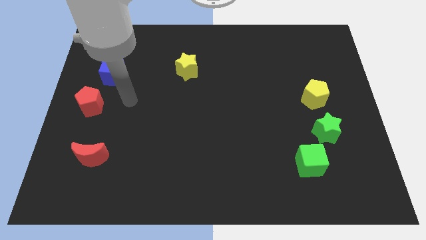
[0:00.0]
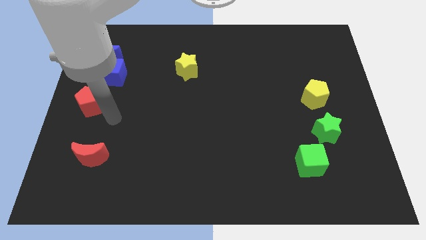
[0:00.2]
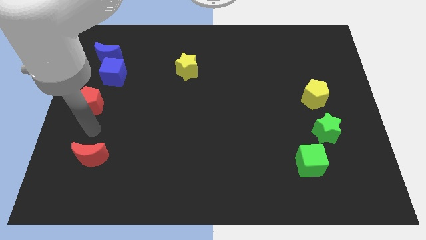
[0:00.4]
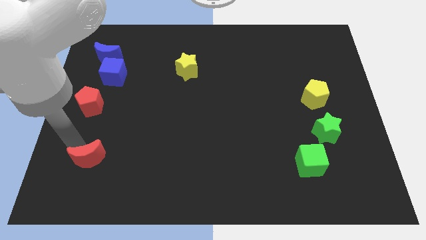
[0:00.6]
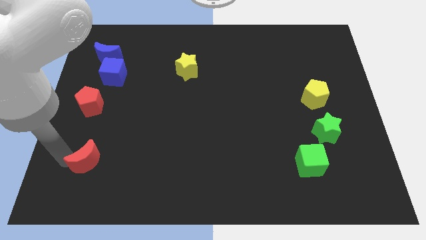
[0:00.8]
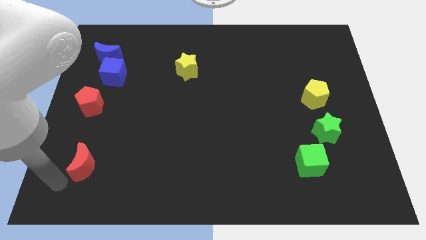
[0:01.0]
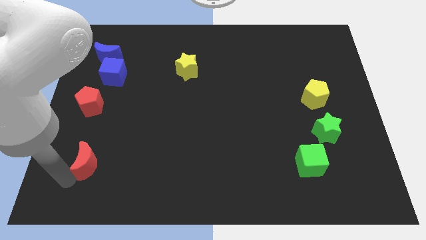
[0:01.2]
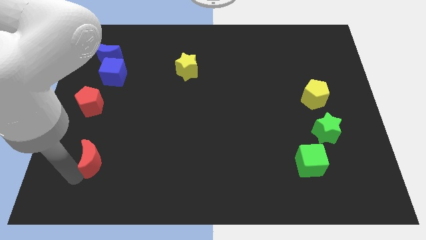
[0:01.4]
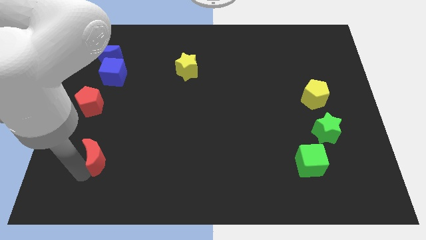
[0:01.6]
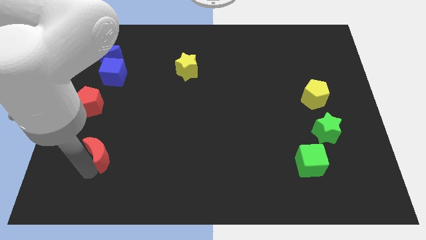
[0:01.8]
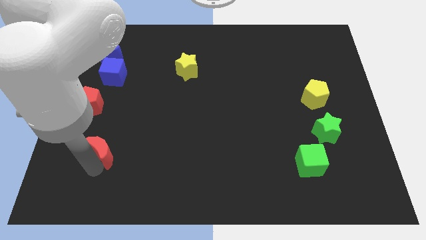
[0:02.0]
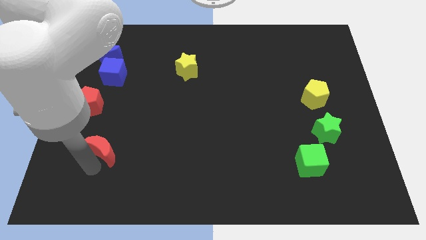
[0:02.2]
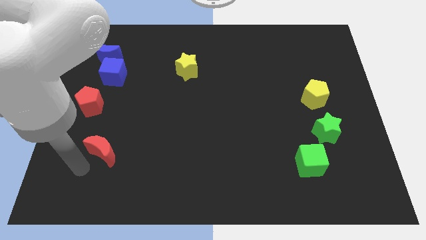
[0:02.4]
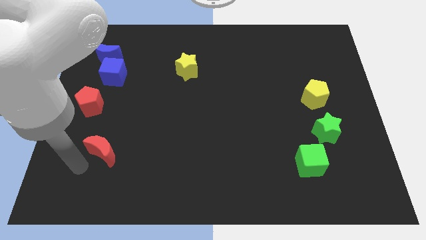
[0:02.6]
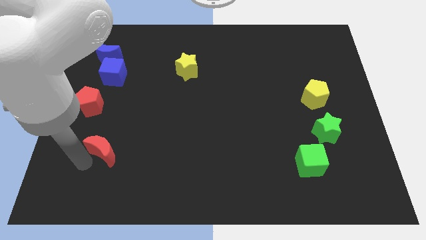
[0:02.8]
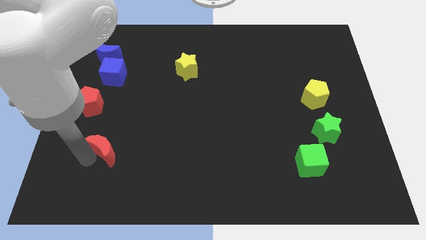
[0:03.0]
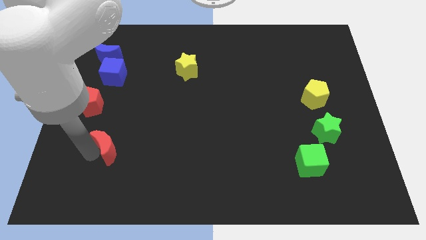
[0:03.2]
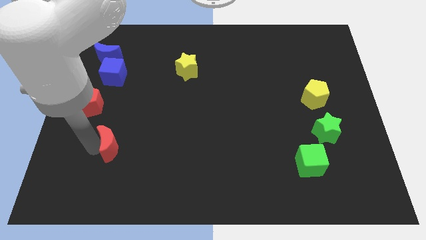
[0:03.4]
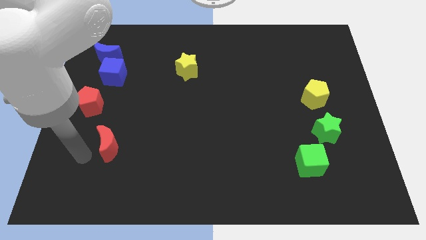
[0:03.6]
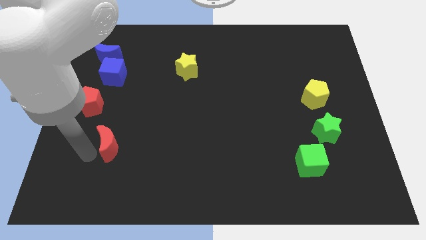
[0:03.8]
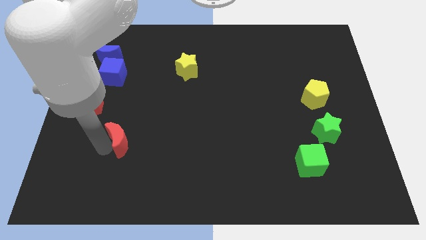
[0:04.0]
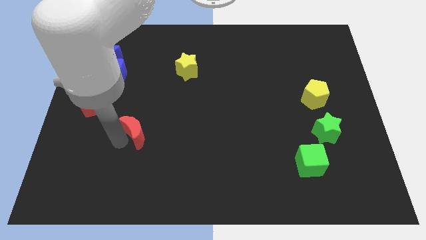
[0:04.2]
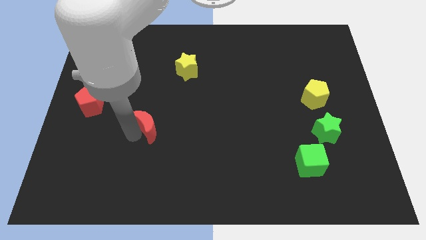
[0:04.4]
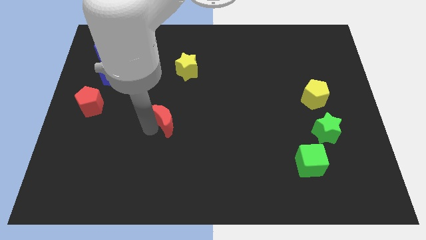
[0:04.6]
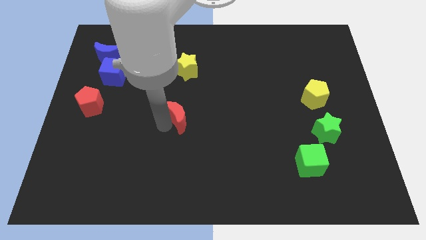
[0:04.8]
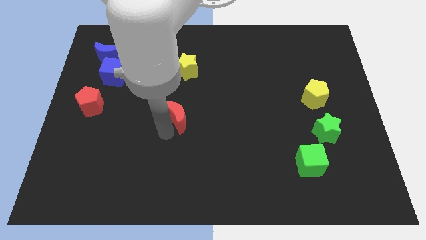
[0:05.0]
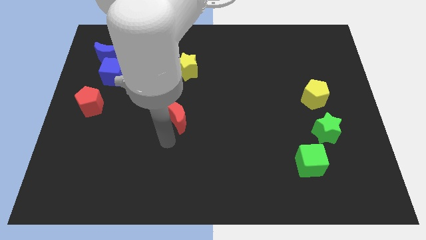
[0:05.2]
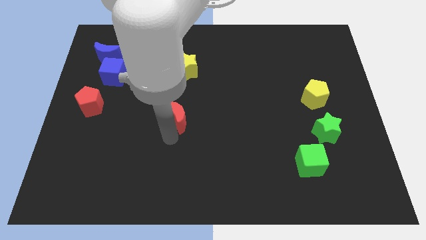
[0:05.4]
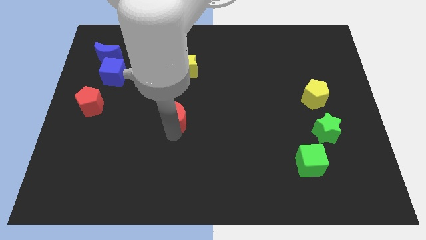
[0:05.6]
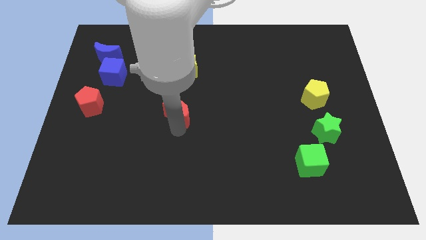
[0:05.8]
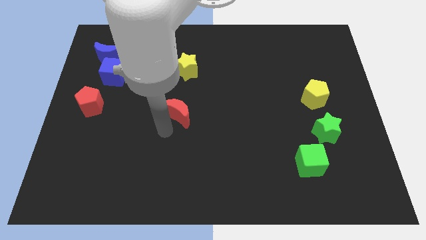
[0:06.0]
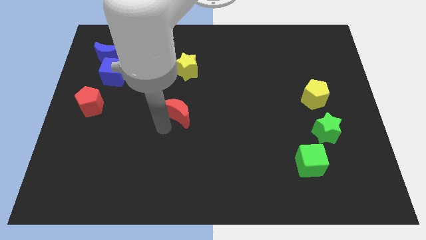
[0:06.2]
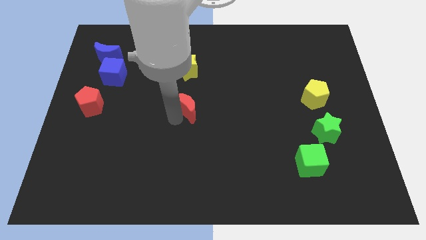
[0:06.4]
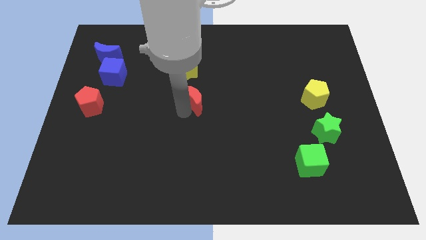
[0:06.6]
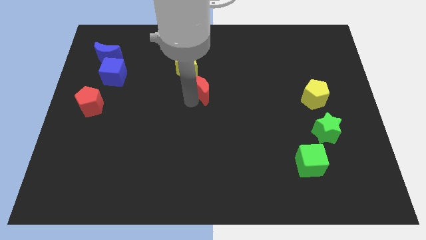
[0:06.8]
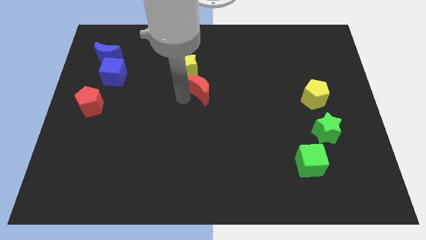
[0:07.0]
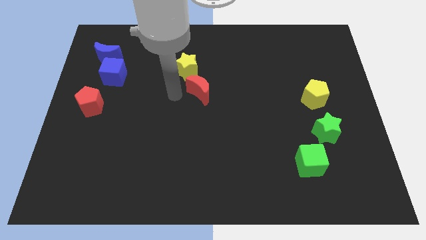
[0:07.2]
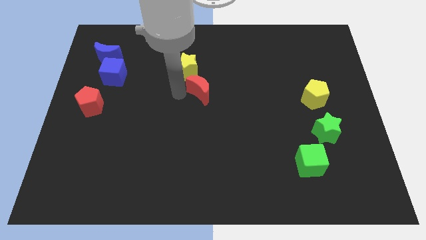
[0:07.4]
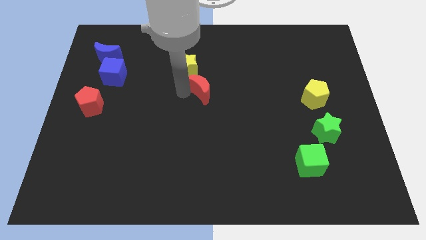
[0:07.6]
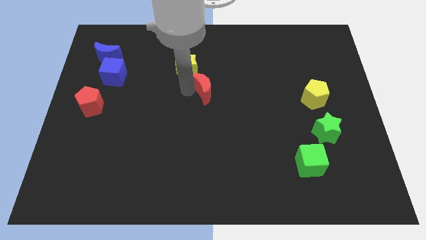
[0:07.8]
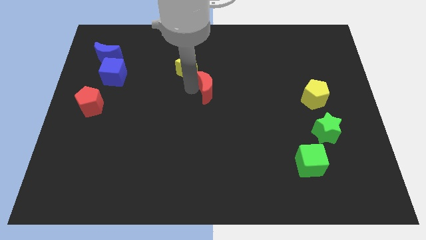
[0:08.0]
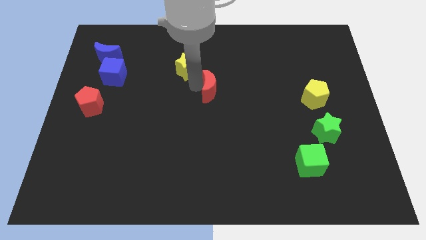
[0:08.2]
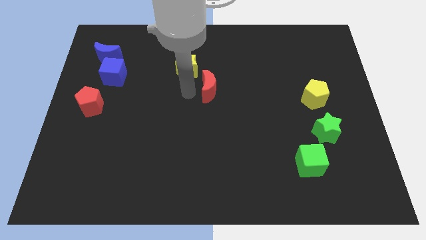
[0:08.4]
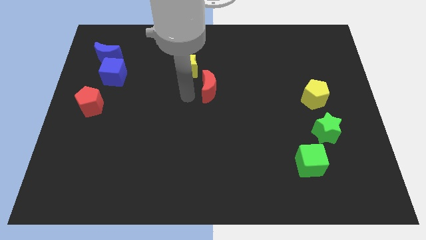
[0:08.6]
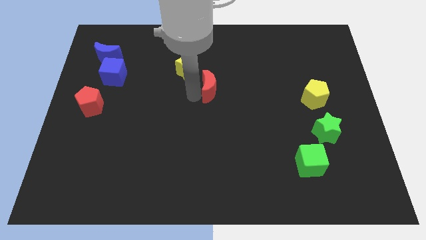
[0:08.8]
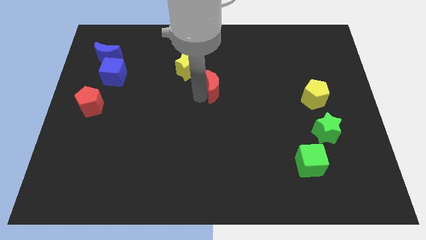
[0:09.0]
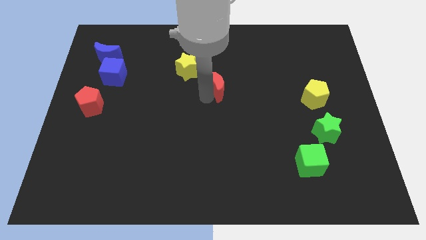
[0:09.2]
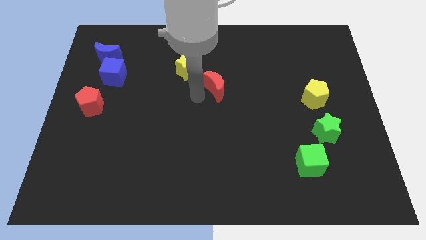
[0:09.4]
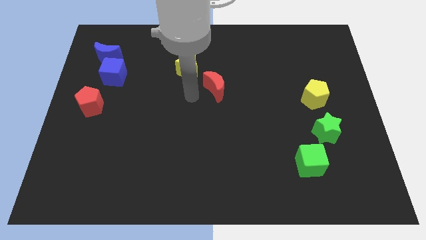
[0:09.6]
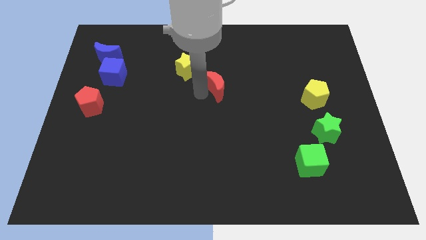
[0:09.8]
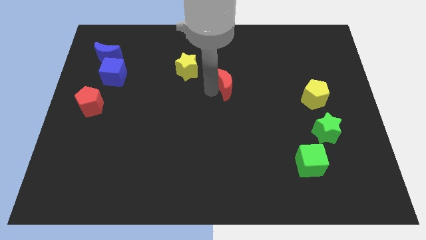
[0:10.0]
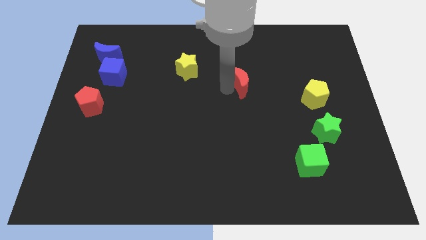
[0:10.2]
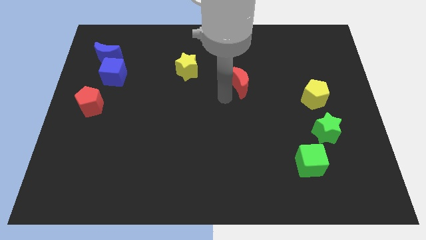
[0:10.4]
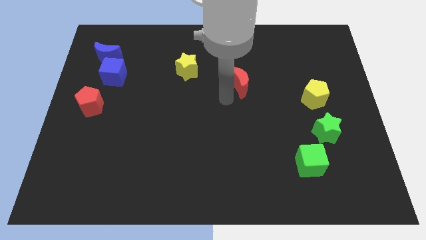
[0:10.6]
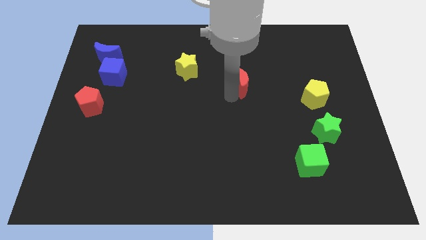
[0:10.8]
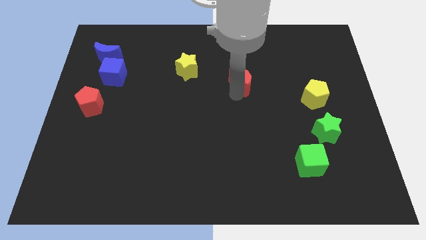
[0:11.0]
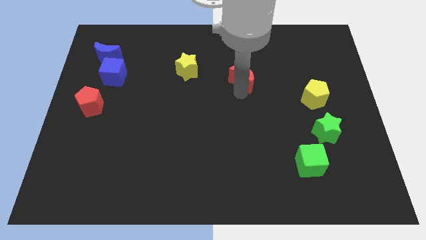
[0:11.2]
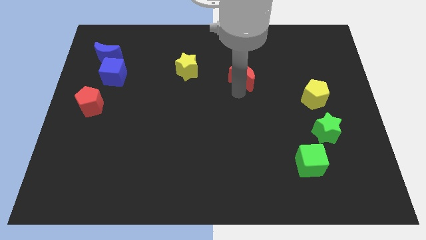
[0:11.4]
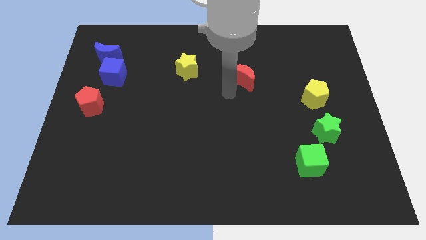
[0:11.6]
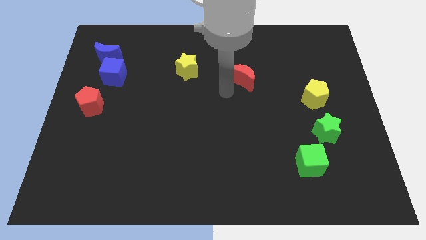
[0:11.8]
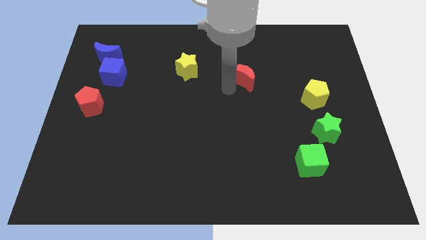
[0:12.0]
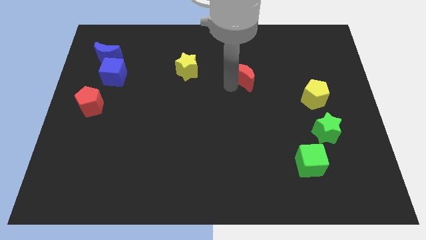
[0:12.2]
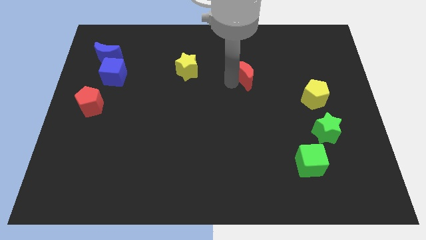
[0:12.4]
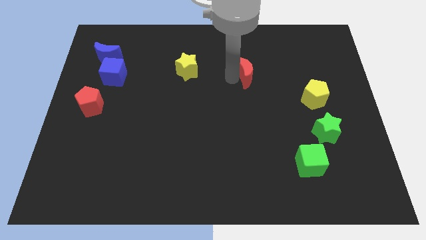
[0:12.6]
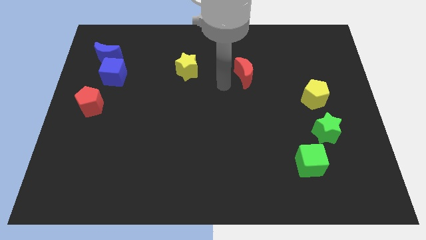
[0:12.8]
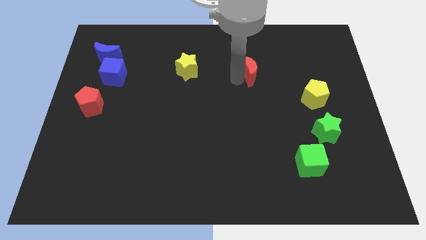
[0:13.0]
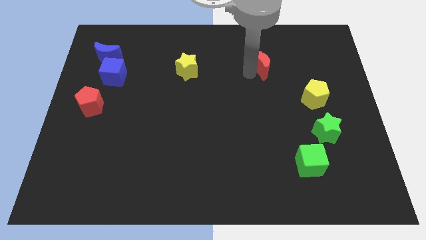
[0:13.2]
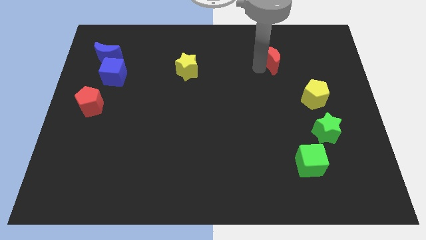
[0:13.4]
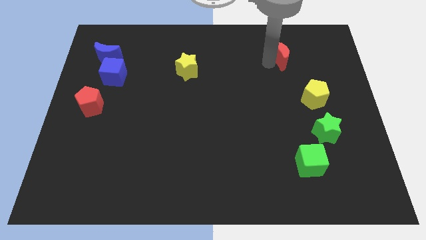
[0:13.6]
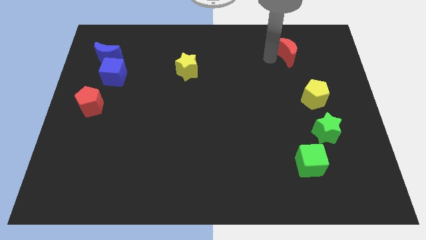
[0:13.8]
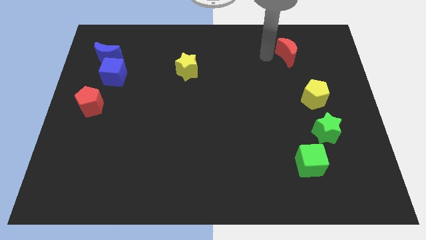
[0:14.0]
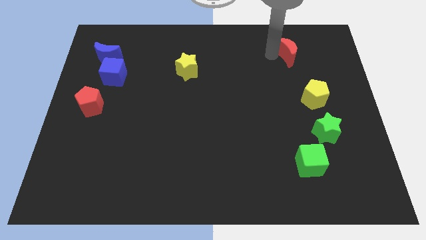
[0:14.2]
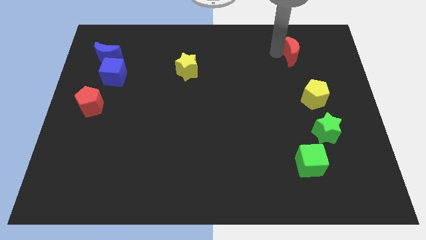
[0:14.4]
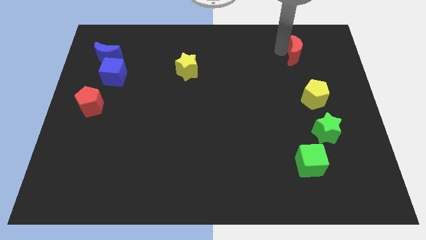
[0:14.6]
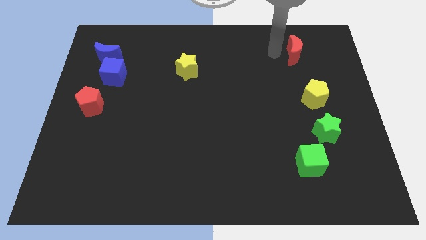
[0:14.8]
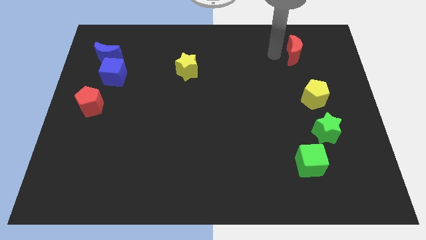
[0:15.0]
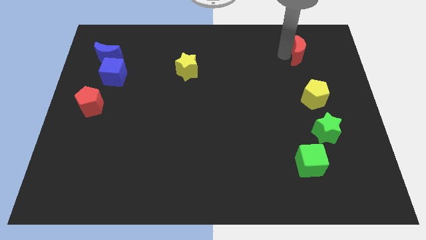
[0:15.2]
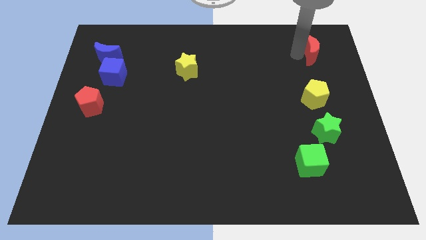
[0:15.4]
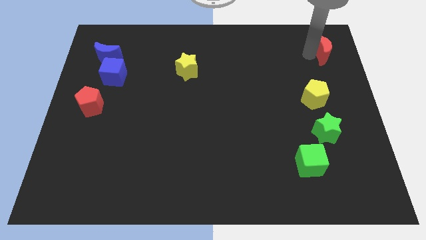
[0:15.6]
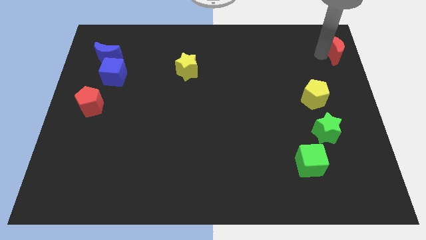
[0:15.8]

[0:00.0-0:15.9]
move the red moon to the upper right corner
